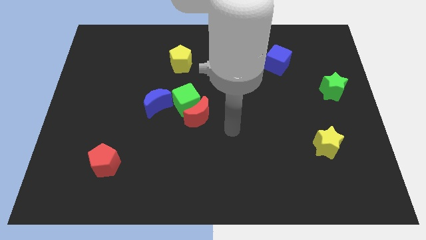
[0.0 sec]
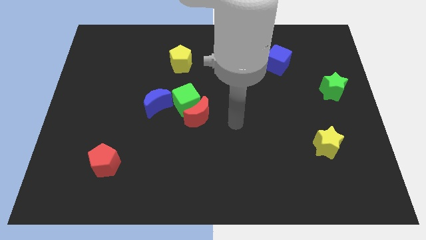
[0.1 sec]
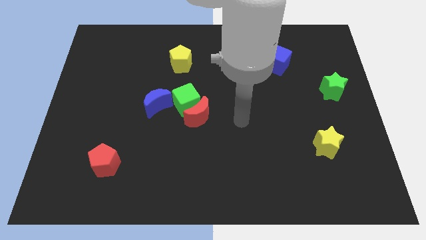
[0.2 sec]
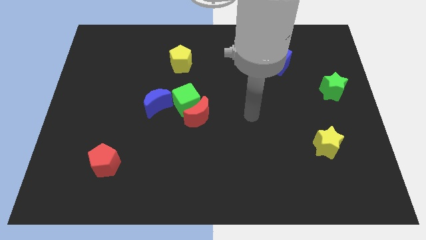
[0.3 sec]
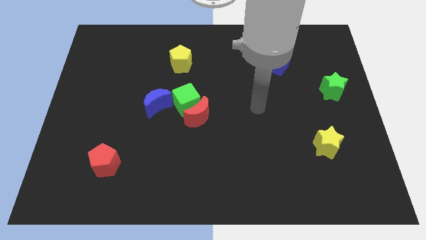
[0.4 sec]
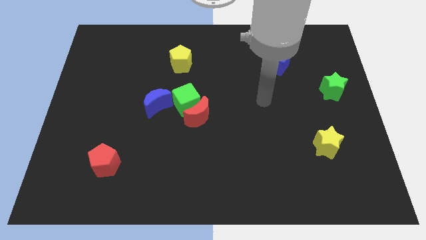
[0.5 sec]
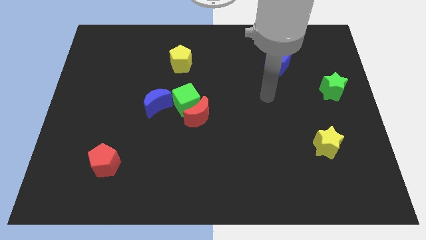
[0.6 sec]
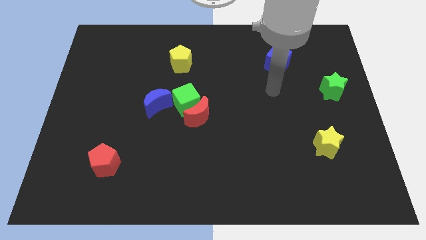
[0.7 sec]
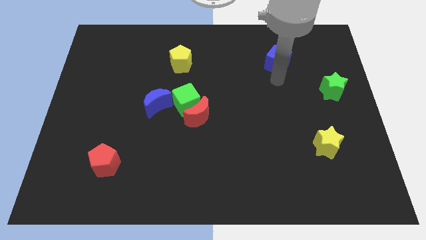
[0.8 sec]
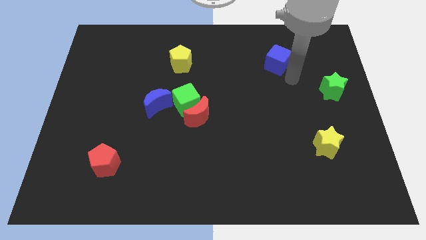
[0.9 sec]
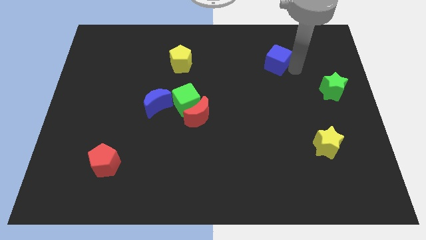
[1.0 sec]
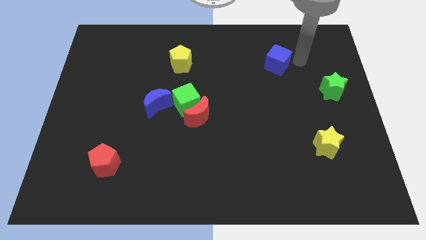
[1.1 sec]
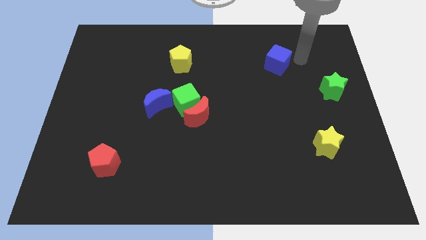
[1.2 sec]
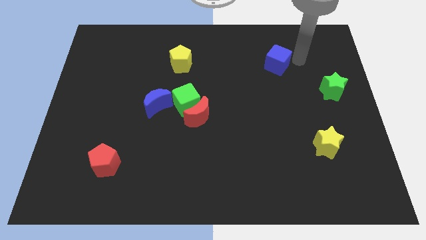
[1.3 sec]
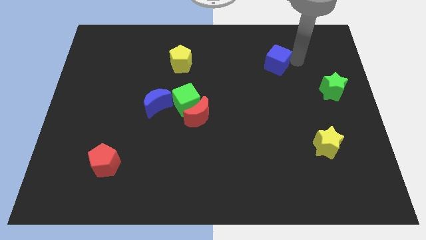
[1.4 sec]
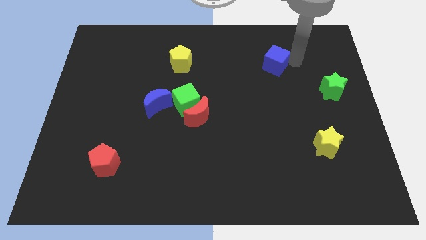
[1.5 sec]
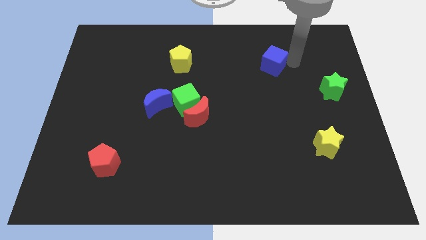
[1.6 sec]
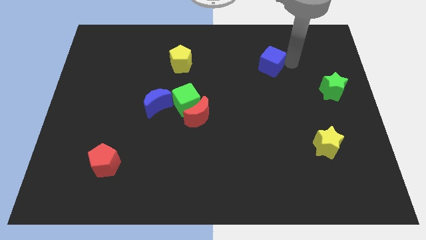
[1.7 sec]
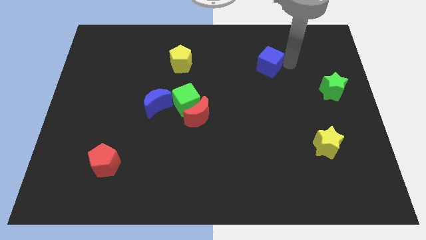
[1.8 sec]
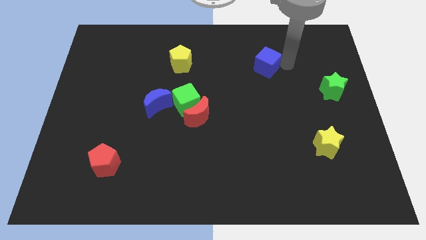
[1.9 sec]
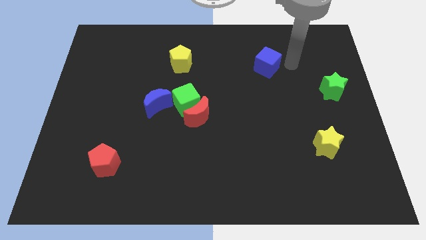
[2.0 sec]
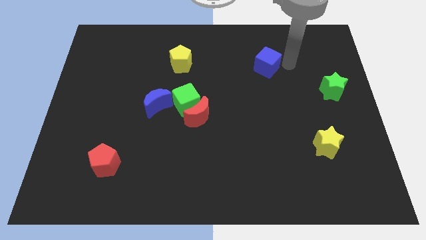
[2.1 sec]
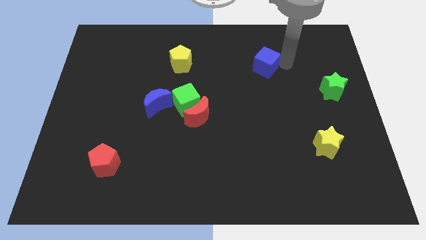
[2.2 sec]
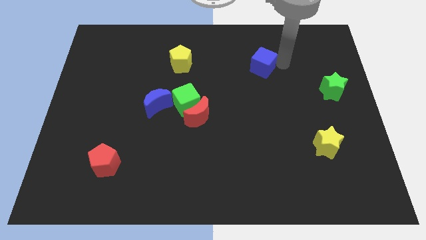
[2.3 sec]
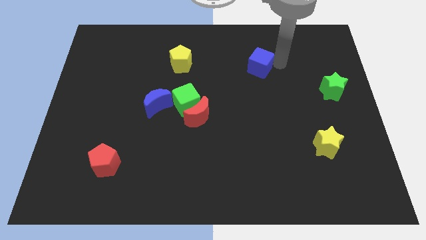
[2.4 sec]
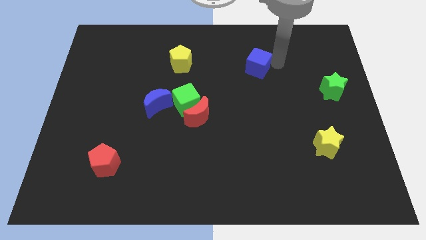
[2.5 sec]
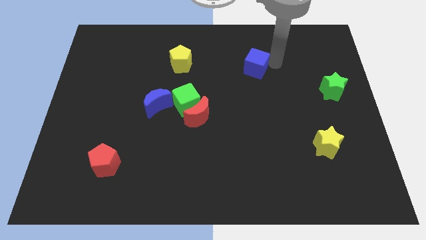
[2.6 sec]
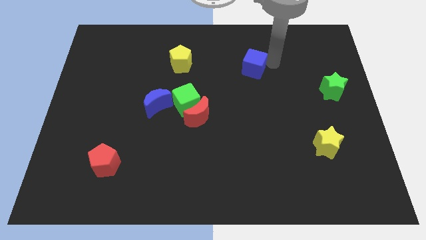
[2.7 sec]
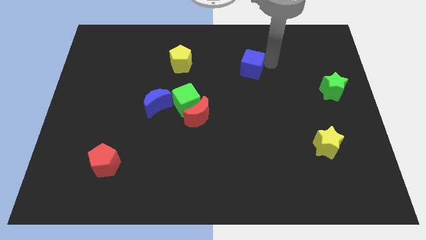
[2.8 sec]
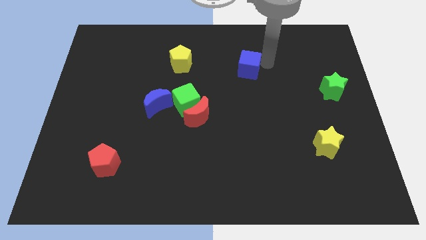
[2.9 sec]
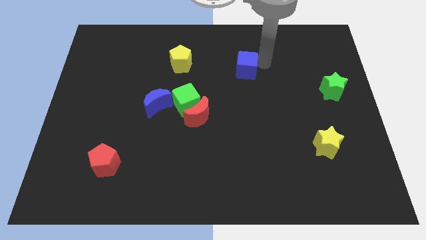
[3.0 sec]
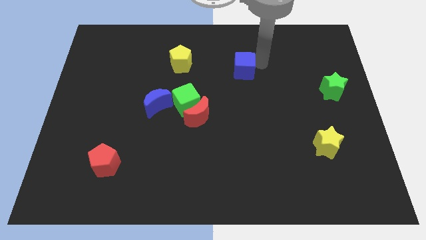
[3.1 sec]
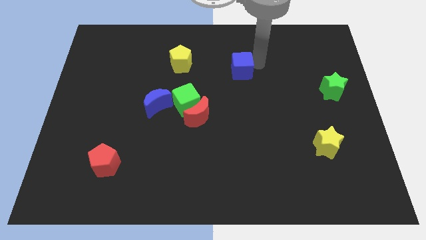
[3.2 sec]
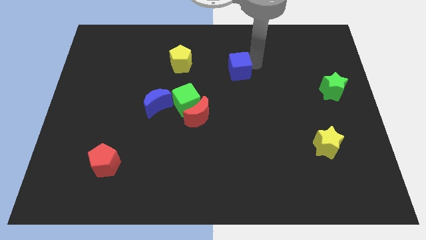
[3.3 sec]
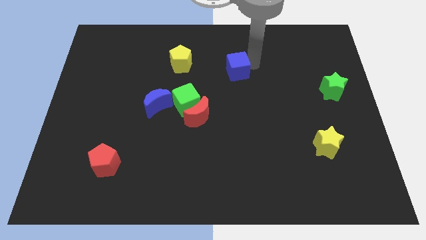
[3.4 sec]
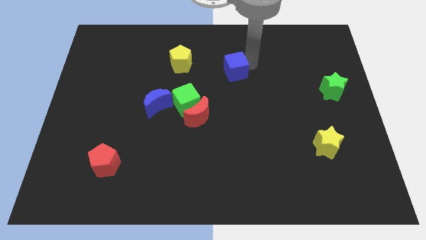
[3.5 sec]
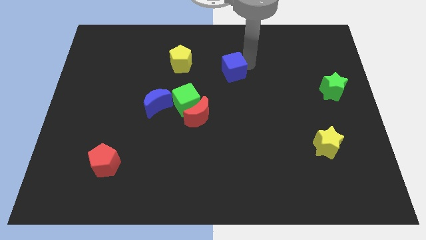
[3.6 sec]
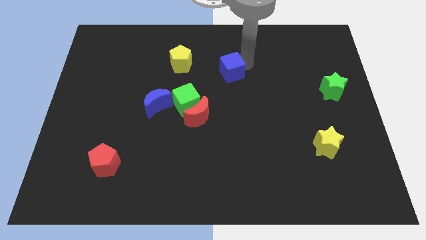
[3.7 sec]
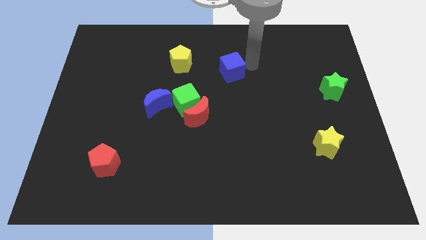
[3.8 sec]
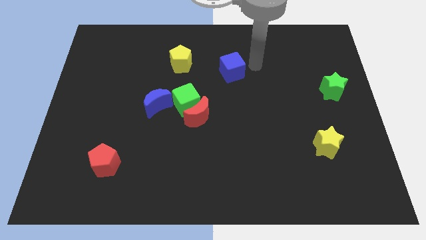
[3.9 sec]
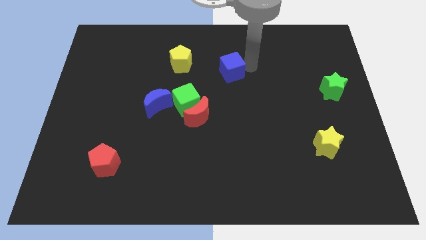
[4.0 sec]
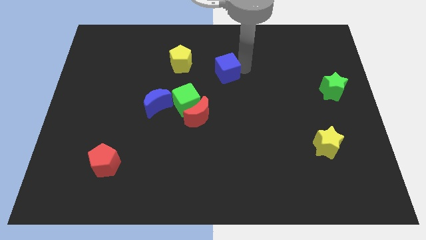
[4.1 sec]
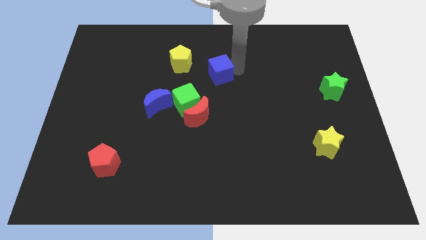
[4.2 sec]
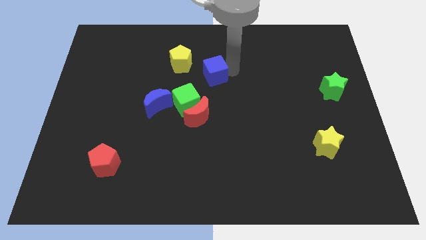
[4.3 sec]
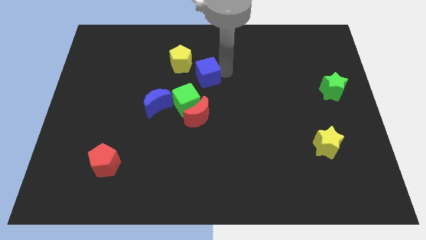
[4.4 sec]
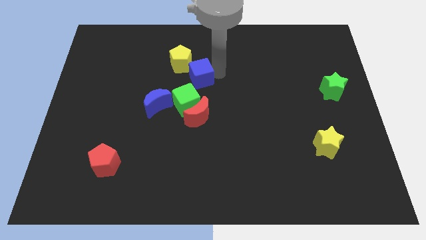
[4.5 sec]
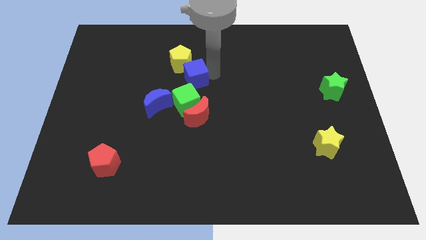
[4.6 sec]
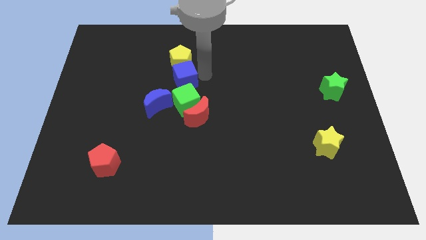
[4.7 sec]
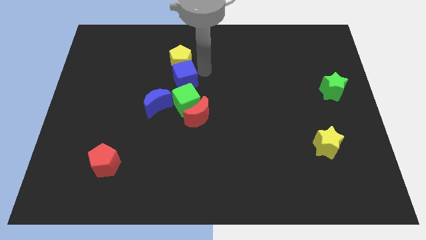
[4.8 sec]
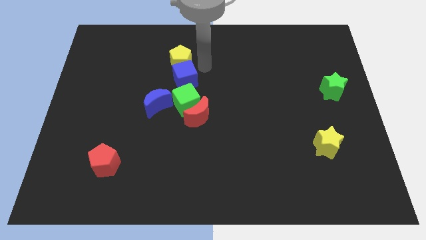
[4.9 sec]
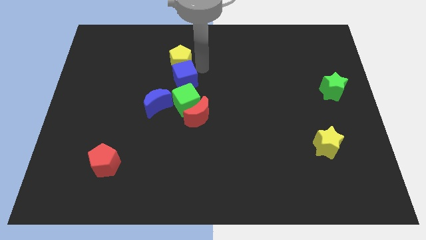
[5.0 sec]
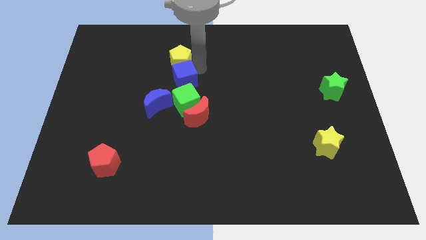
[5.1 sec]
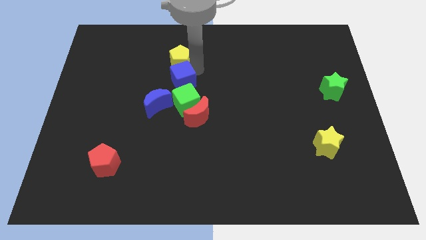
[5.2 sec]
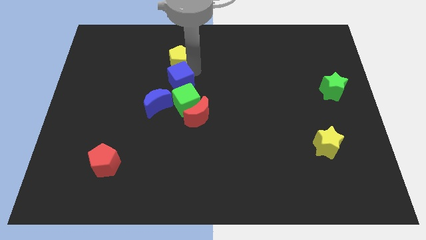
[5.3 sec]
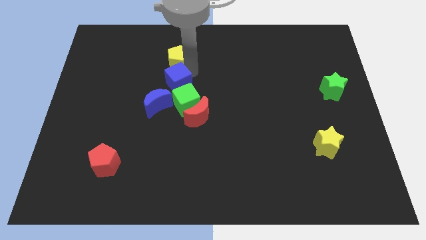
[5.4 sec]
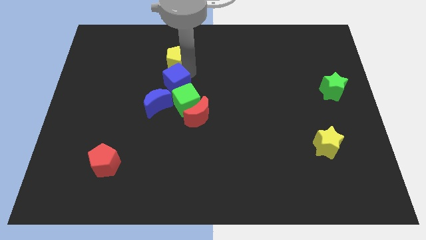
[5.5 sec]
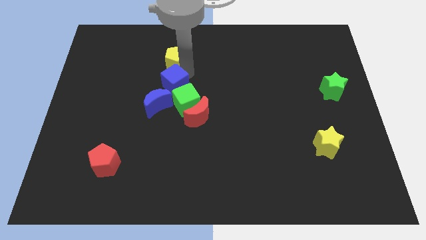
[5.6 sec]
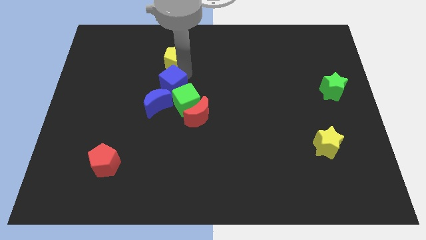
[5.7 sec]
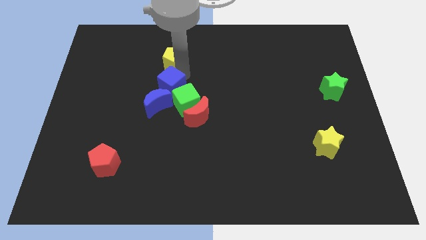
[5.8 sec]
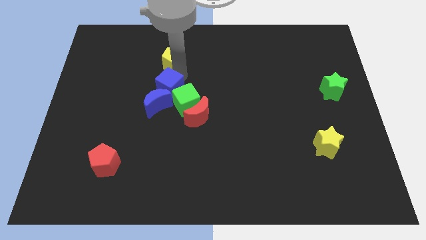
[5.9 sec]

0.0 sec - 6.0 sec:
slide the blue cube close to the blue moon

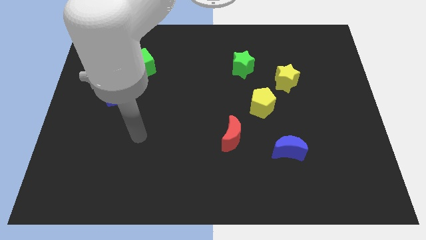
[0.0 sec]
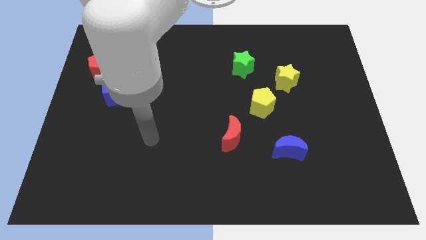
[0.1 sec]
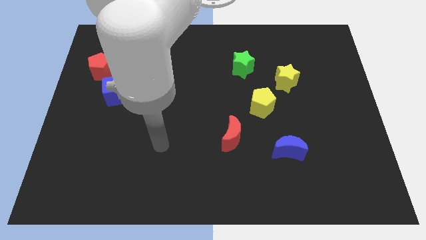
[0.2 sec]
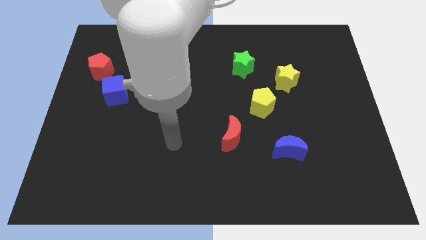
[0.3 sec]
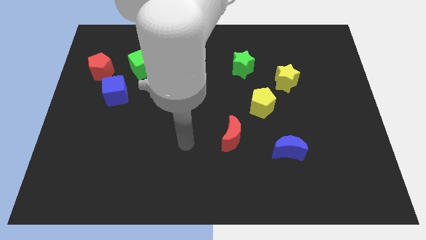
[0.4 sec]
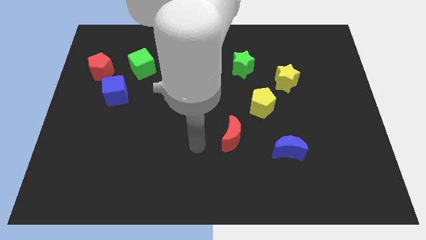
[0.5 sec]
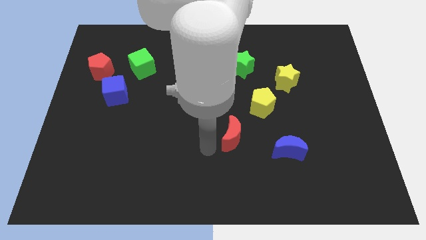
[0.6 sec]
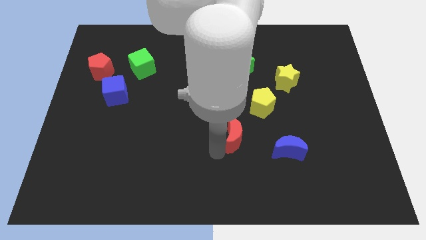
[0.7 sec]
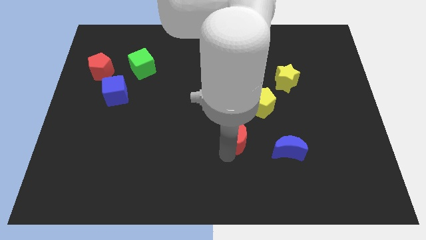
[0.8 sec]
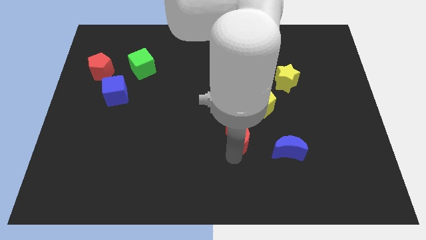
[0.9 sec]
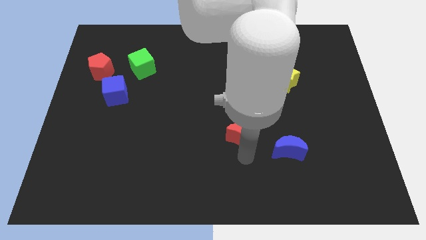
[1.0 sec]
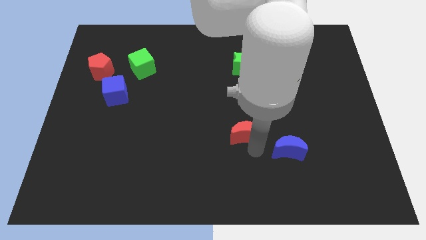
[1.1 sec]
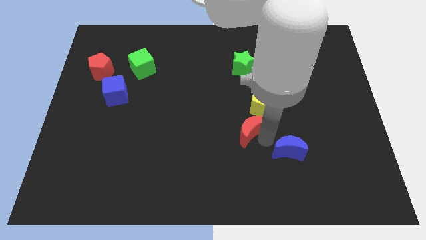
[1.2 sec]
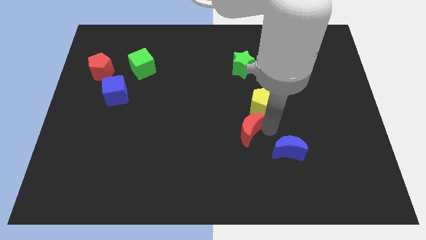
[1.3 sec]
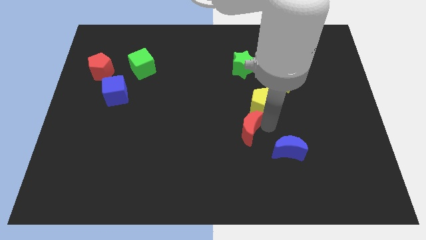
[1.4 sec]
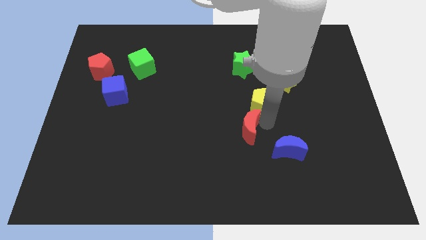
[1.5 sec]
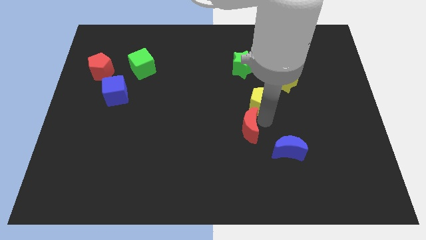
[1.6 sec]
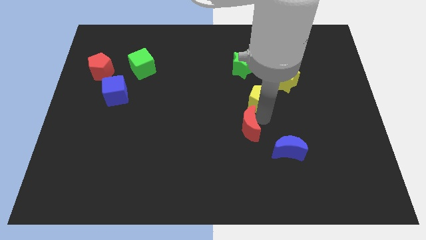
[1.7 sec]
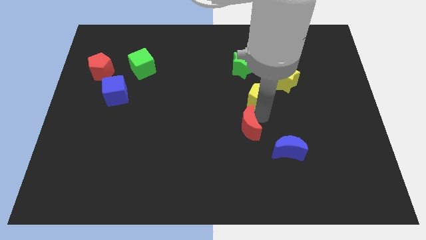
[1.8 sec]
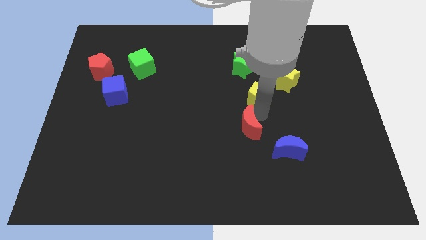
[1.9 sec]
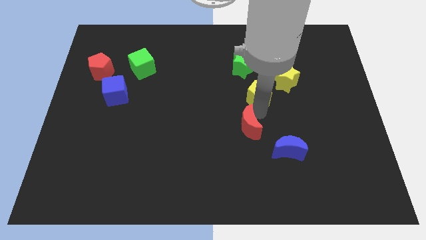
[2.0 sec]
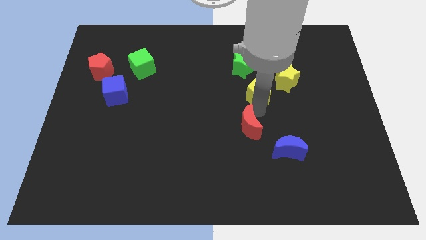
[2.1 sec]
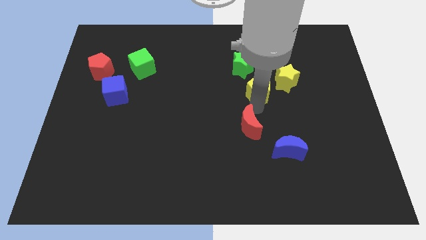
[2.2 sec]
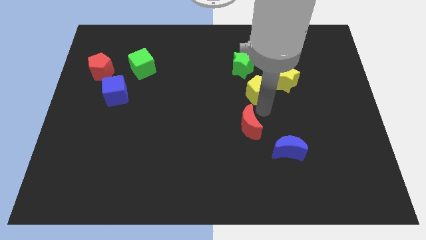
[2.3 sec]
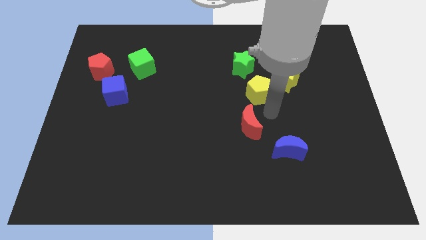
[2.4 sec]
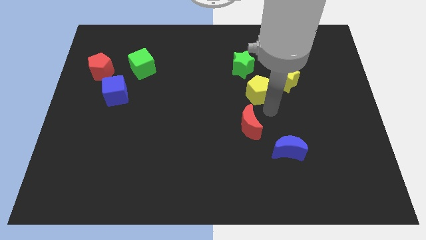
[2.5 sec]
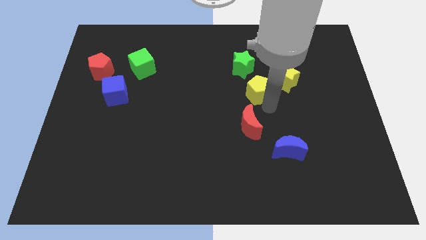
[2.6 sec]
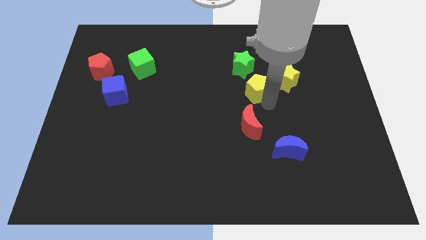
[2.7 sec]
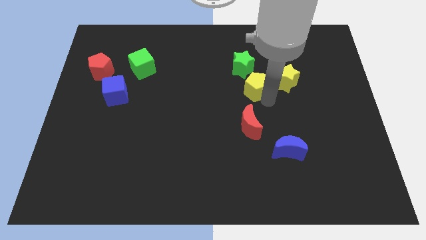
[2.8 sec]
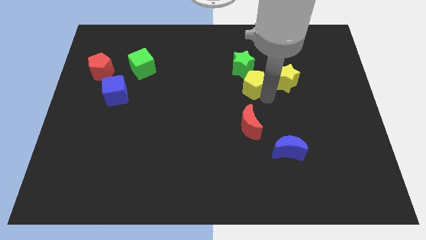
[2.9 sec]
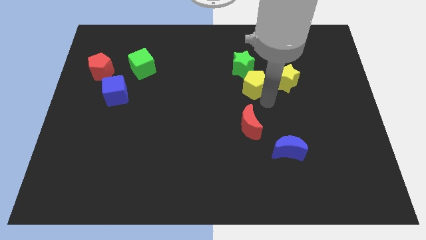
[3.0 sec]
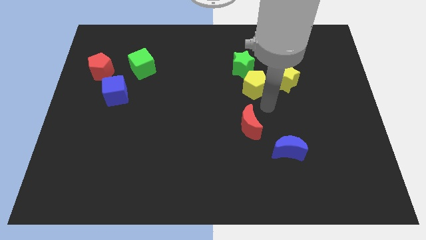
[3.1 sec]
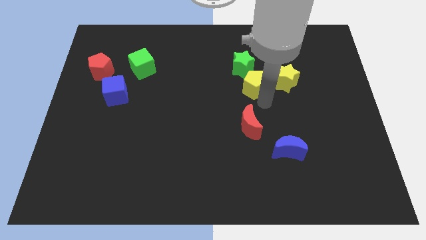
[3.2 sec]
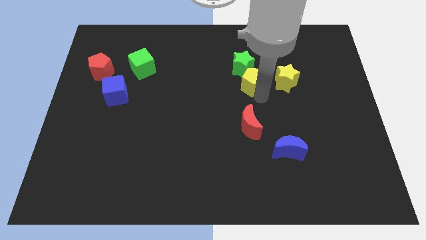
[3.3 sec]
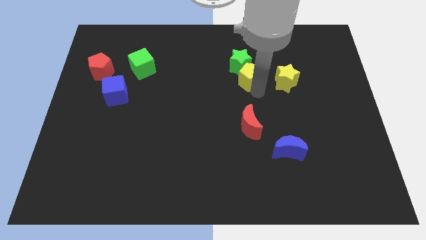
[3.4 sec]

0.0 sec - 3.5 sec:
push the yellow pentagon to the green star
